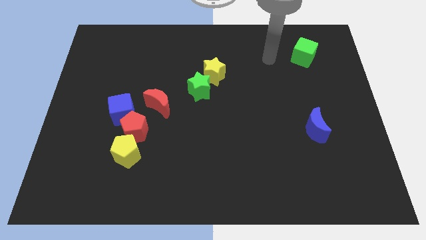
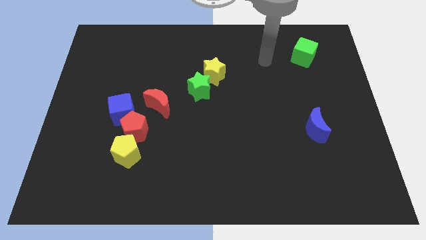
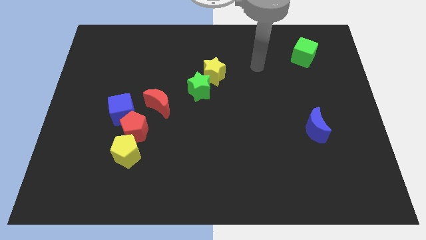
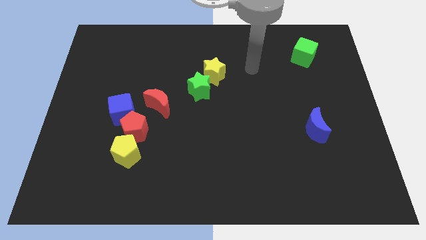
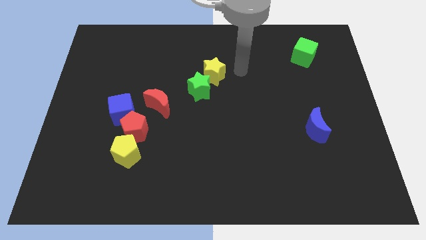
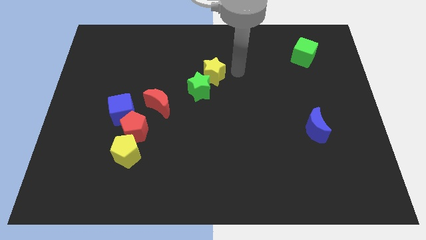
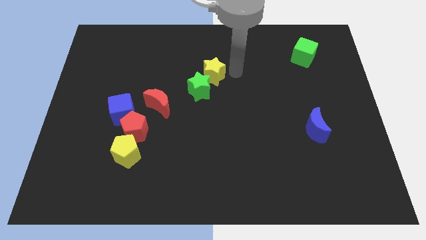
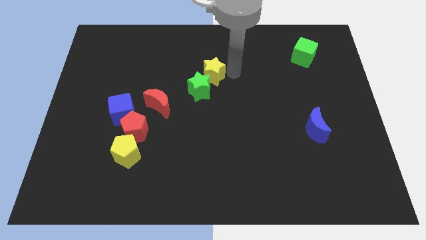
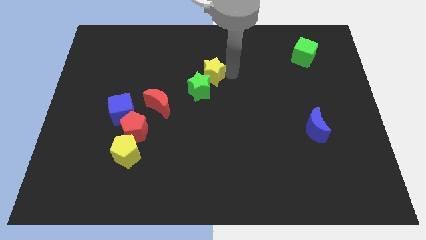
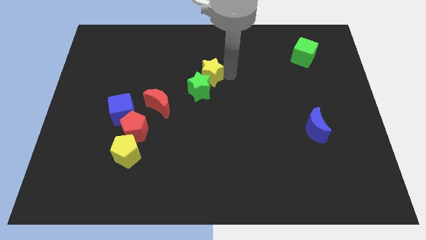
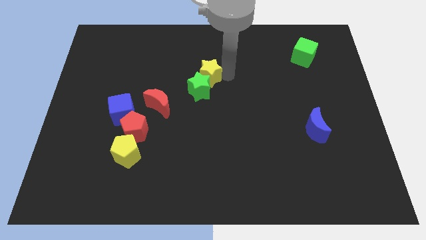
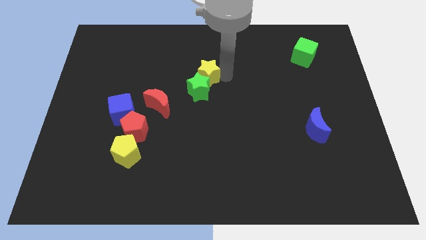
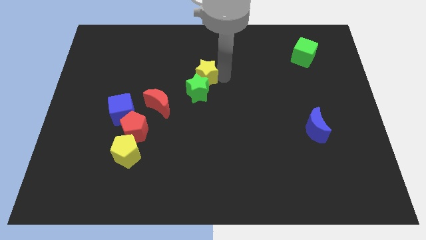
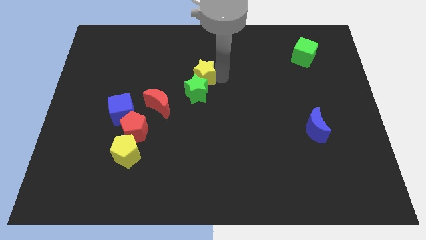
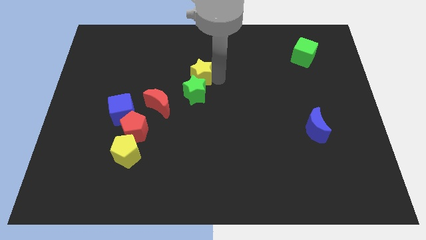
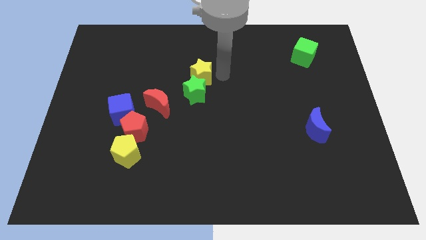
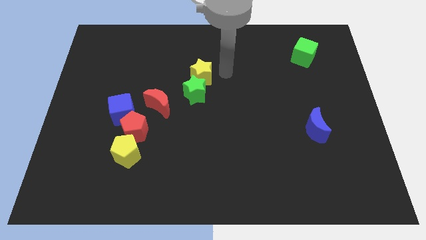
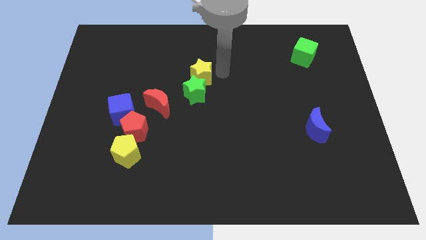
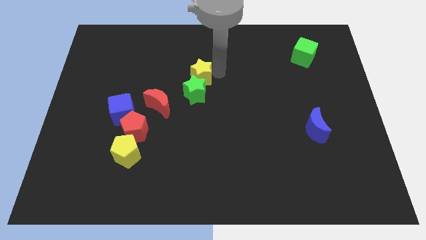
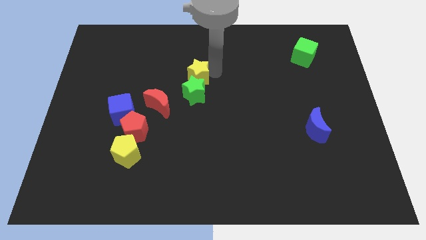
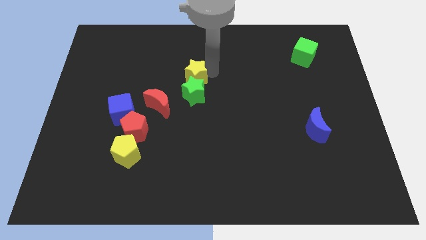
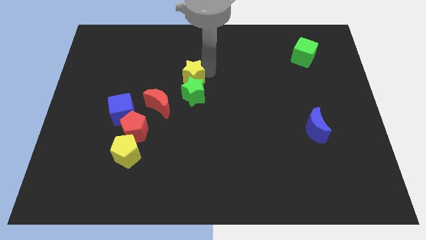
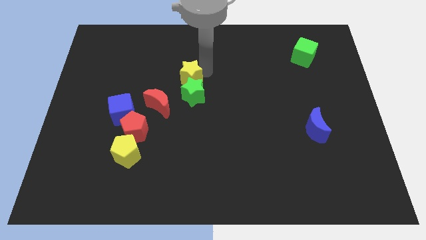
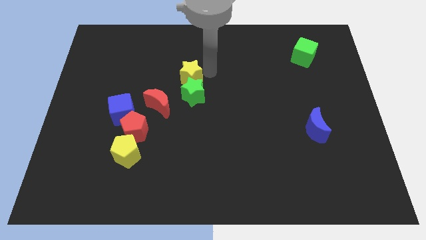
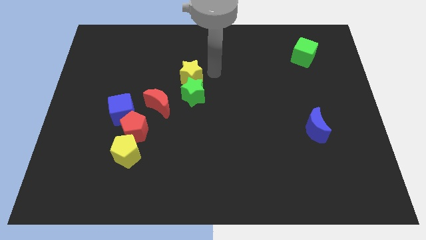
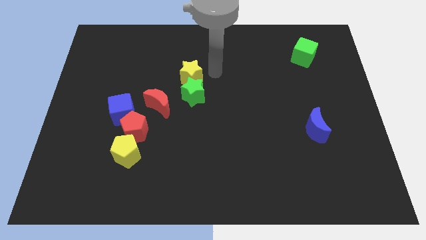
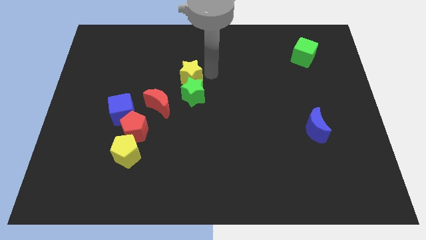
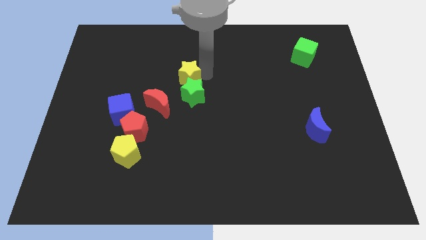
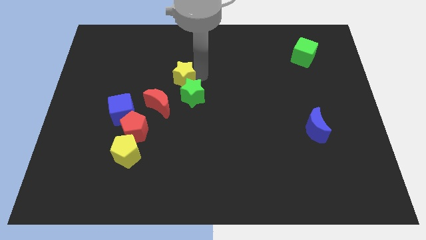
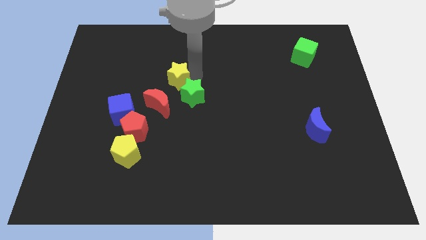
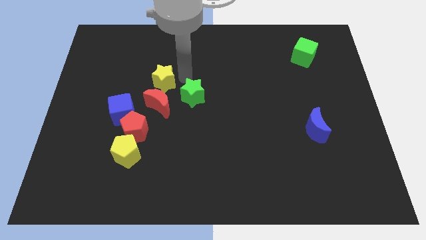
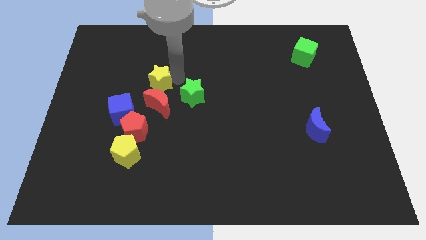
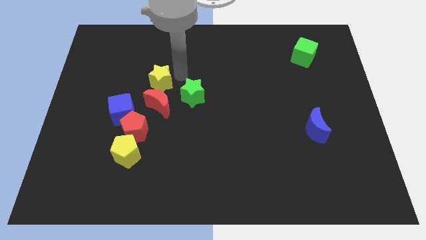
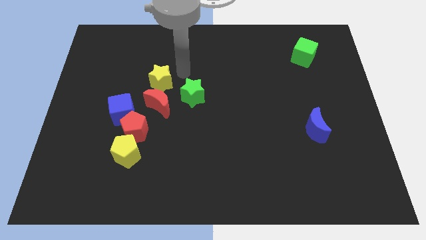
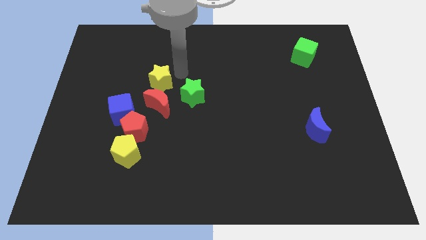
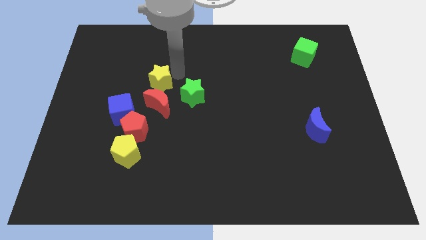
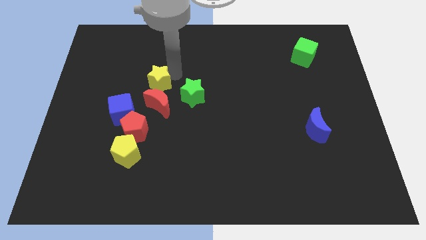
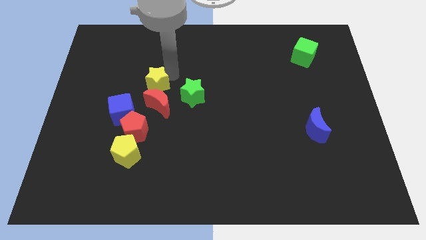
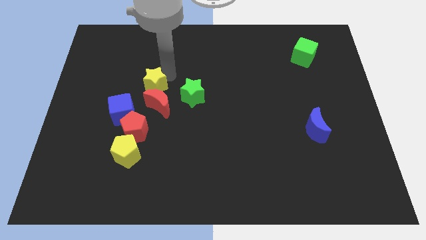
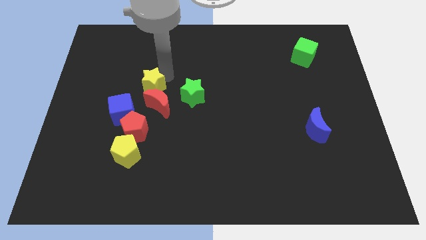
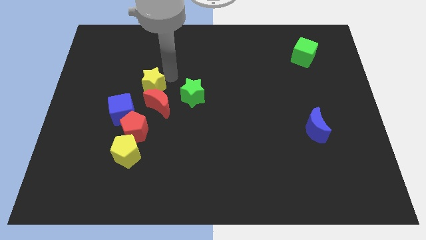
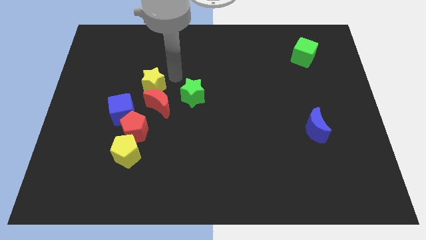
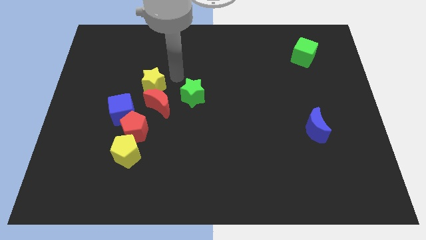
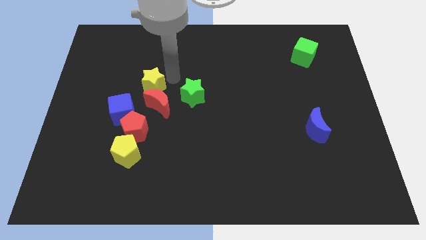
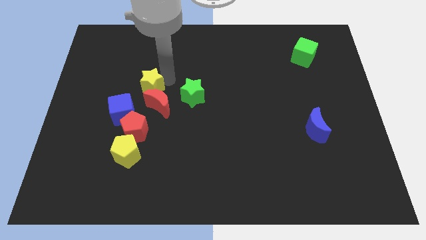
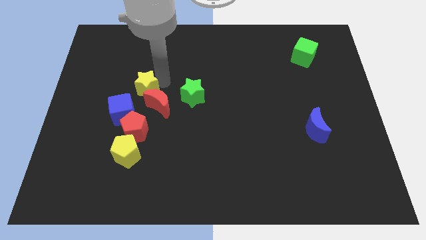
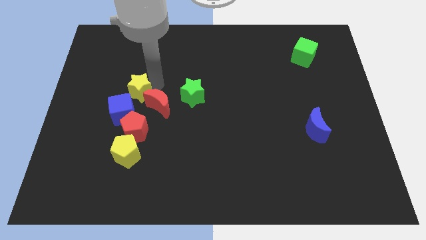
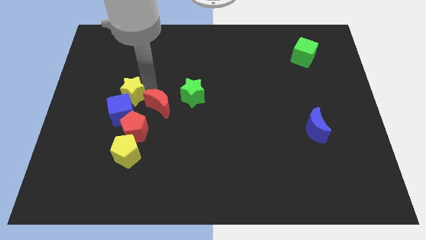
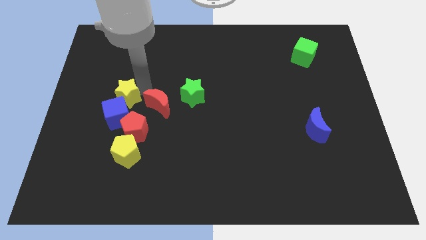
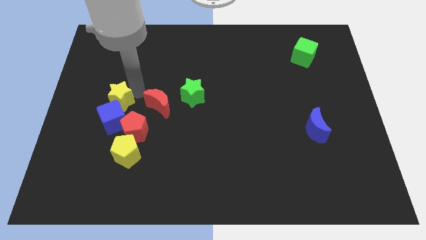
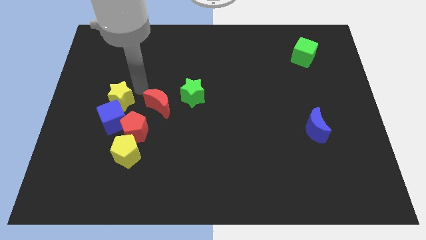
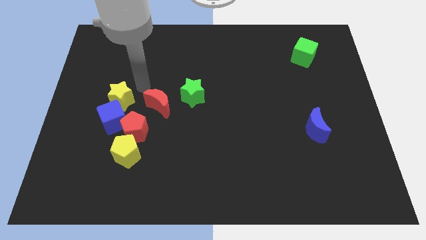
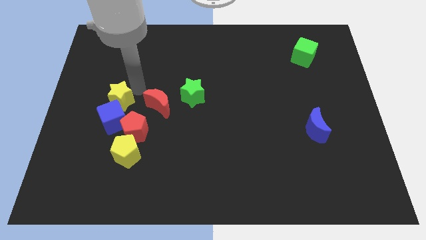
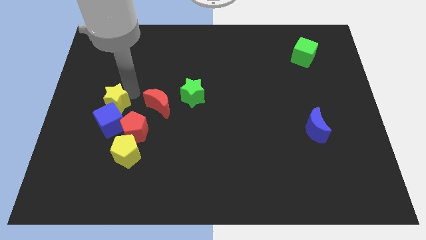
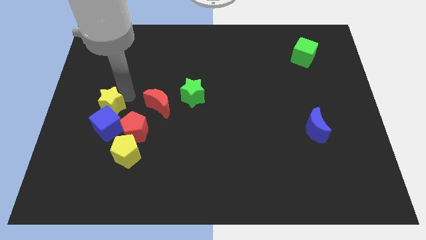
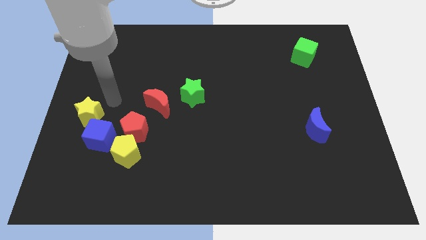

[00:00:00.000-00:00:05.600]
move the yellow star downwards and then to the left

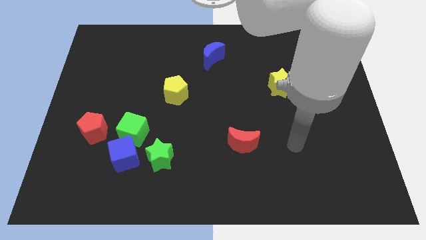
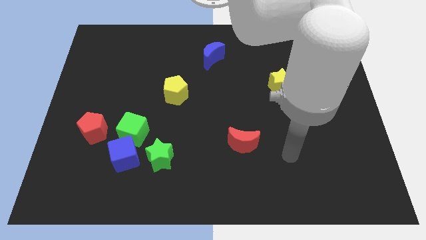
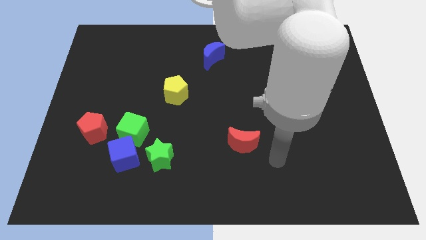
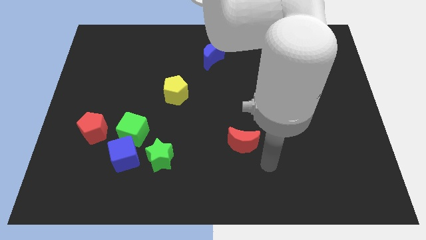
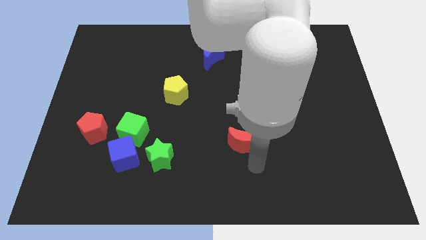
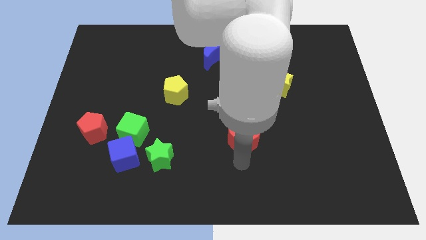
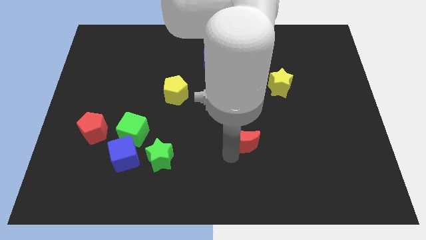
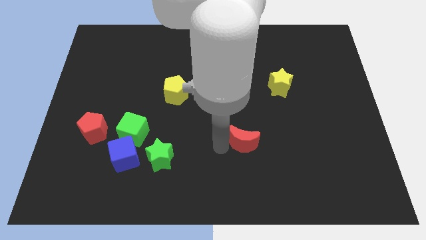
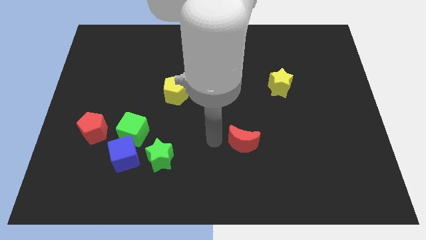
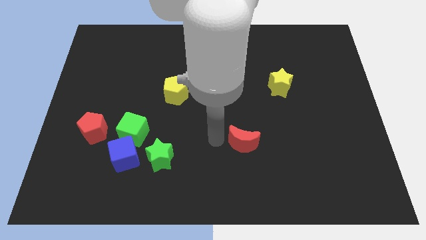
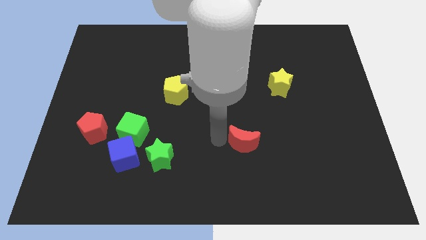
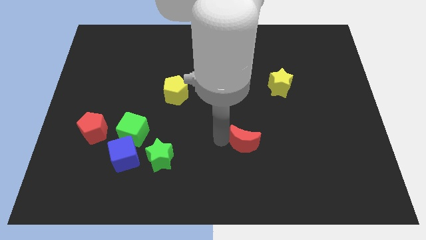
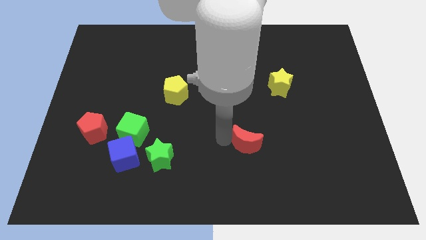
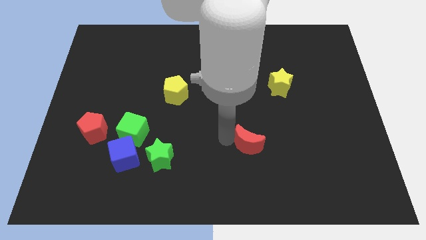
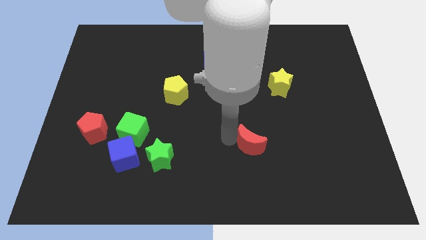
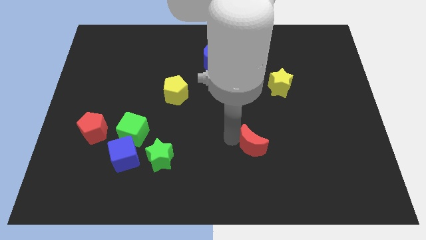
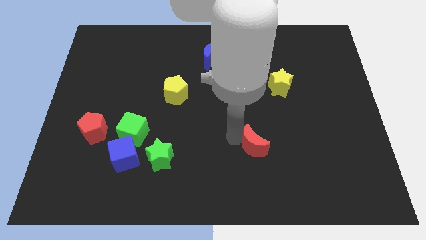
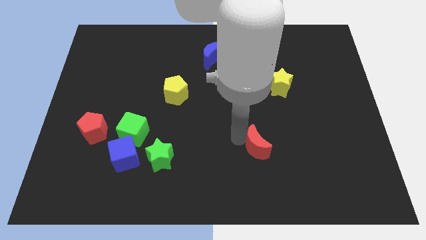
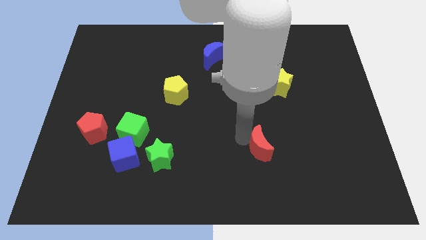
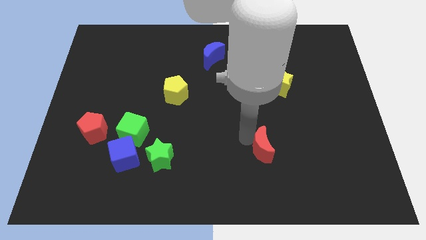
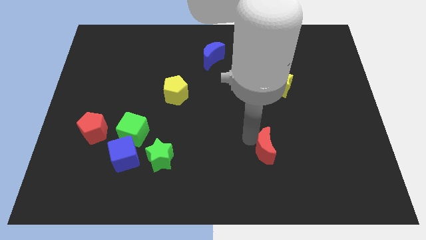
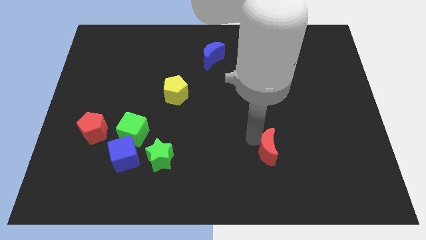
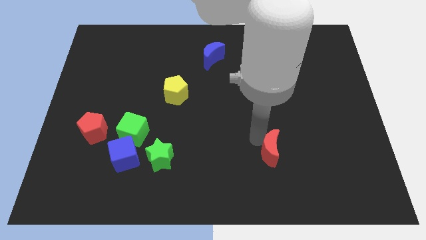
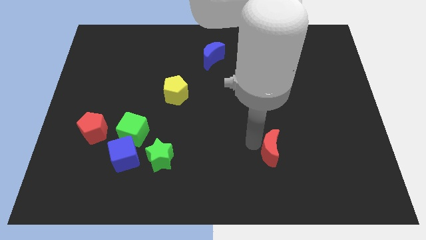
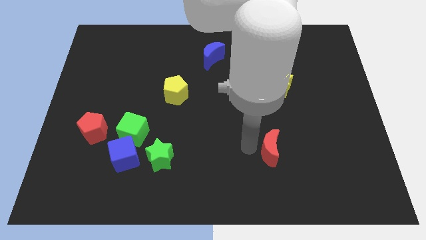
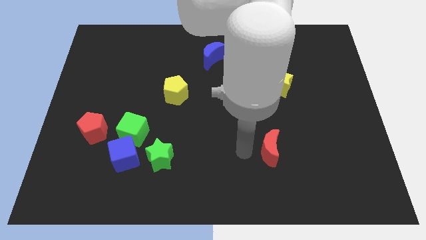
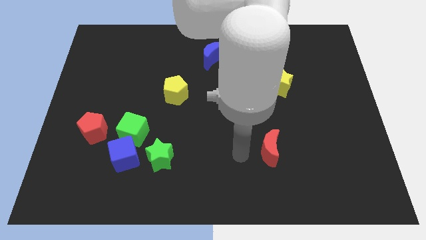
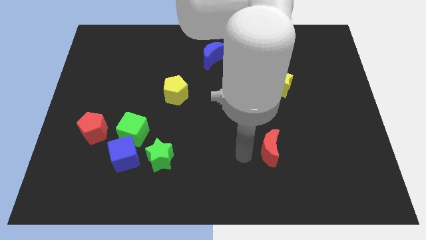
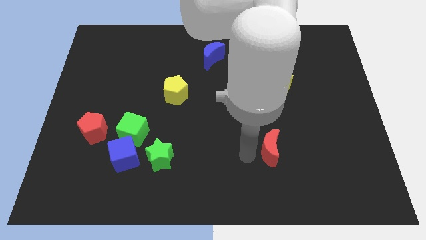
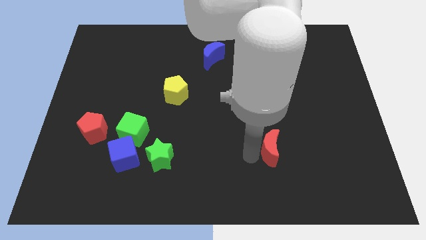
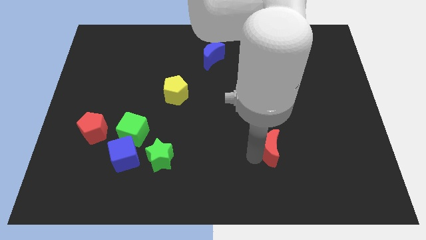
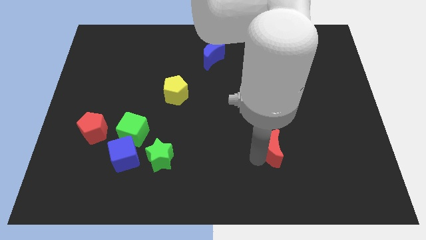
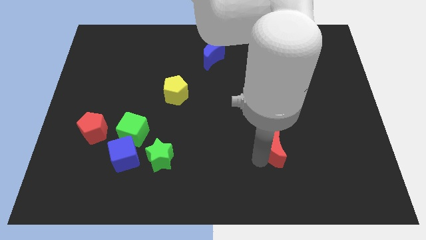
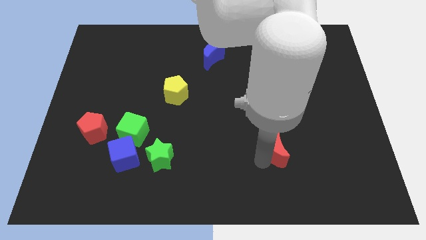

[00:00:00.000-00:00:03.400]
push the red moon a little bit right
